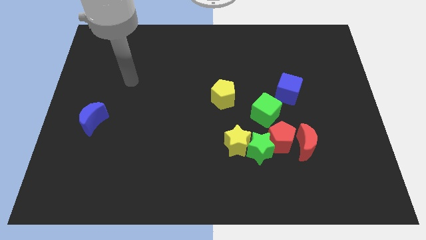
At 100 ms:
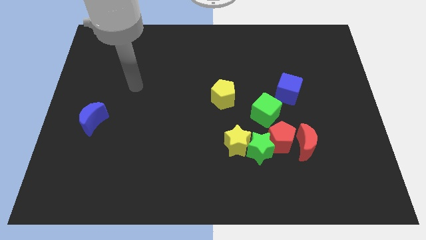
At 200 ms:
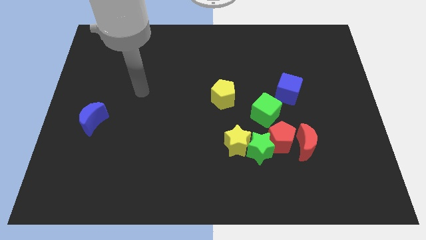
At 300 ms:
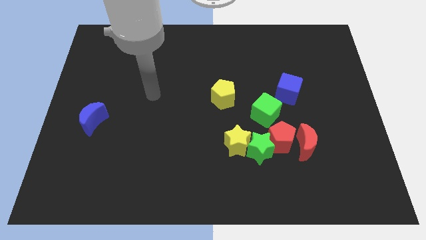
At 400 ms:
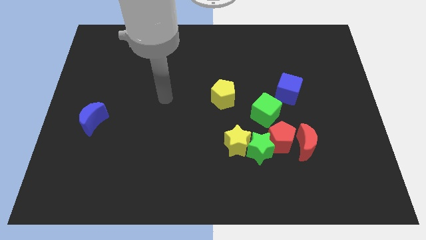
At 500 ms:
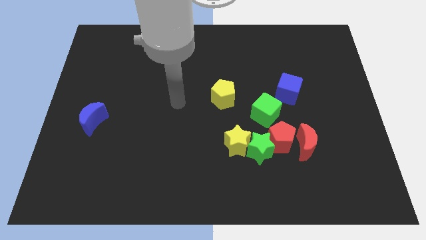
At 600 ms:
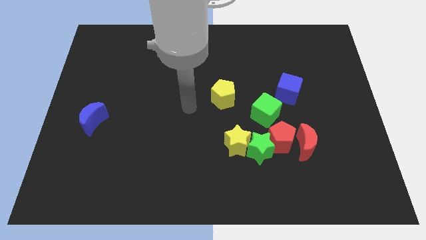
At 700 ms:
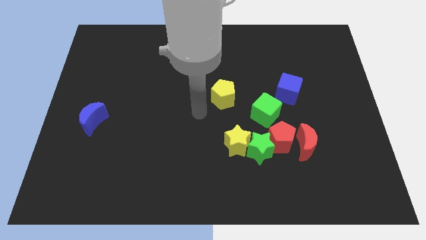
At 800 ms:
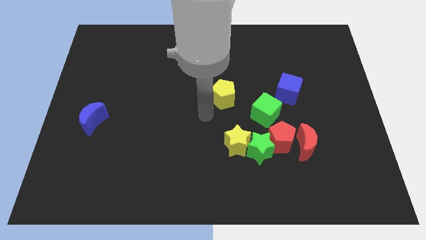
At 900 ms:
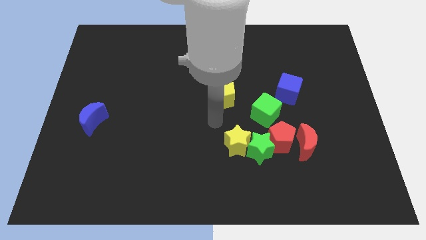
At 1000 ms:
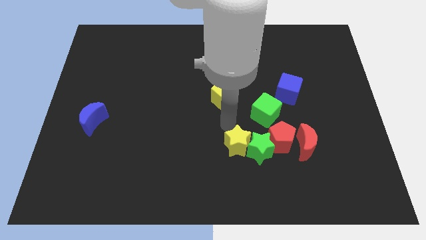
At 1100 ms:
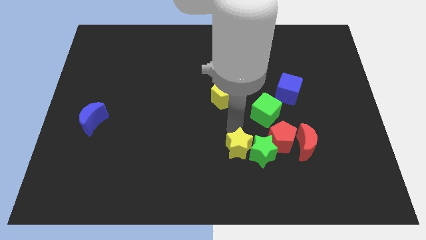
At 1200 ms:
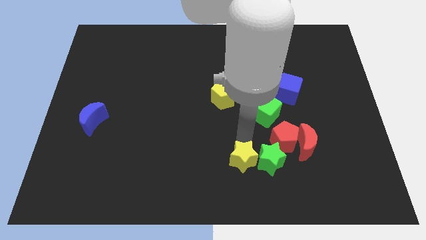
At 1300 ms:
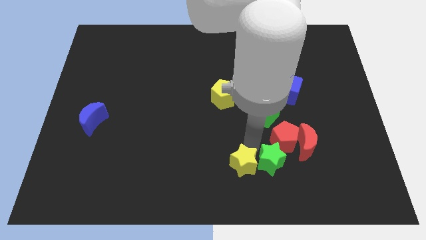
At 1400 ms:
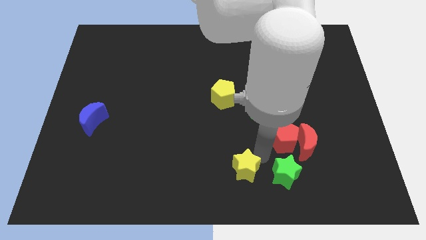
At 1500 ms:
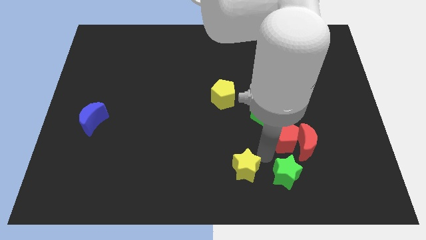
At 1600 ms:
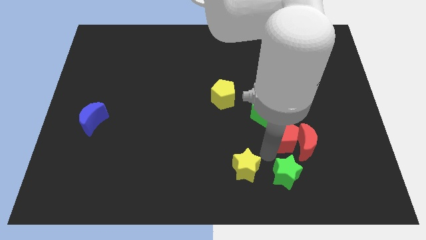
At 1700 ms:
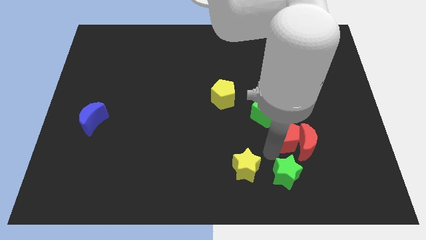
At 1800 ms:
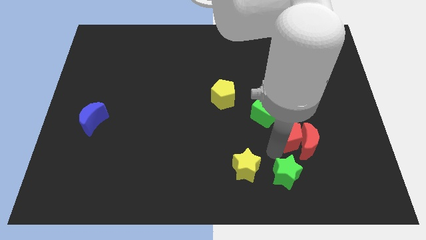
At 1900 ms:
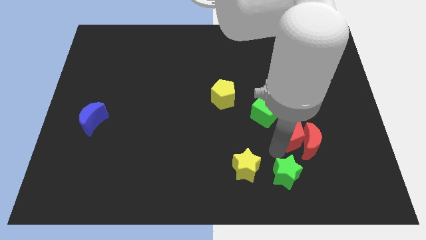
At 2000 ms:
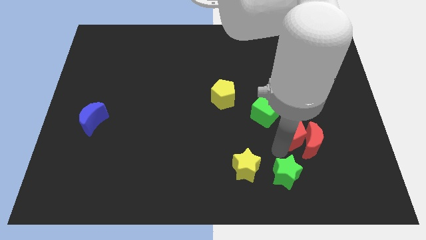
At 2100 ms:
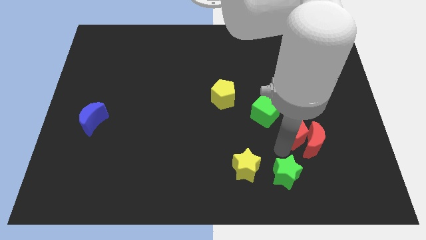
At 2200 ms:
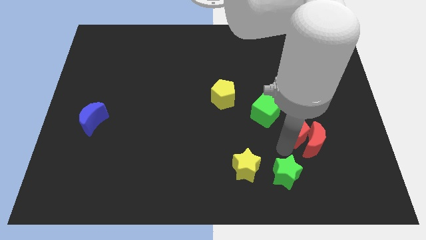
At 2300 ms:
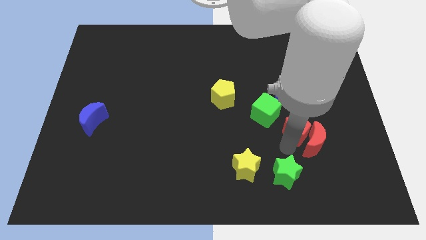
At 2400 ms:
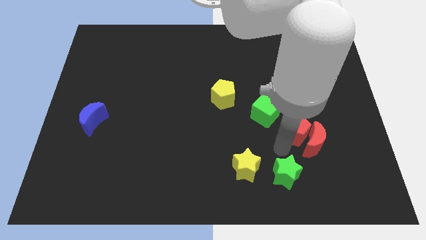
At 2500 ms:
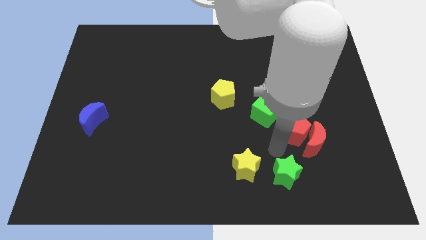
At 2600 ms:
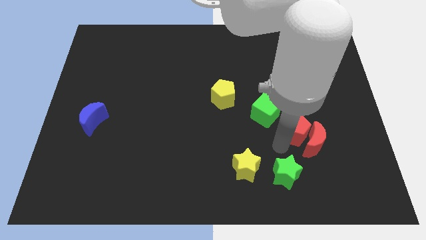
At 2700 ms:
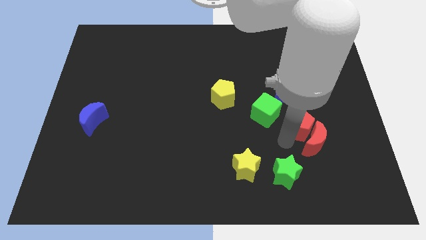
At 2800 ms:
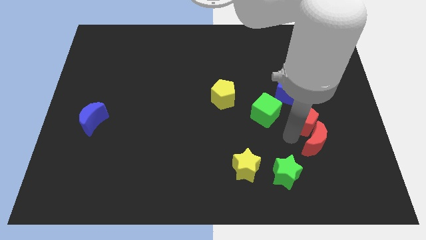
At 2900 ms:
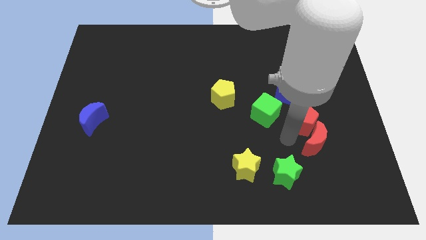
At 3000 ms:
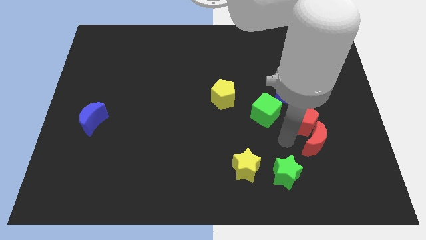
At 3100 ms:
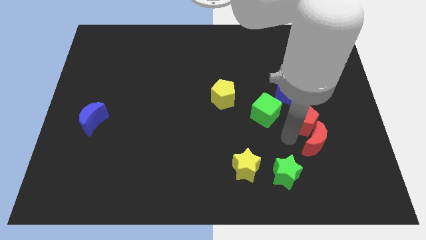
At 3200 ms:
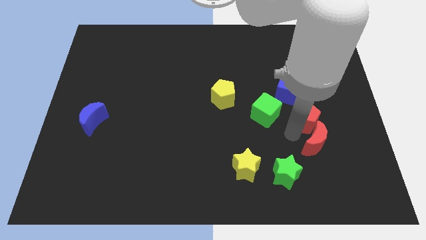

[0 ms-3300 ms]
move the red pentagon away from the group

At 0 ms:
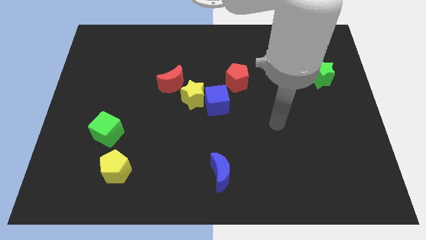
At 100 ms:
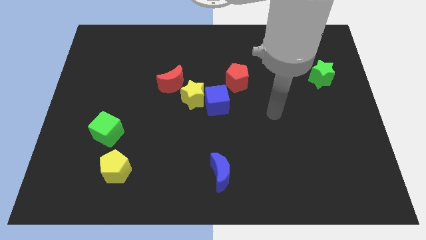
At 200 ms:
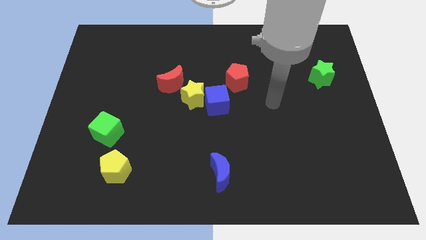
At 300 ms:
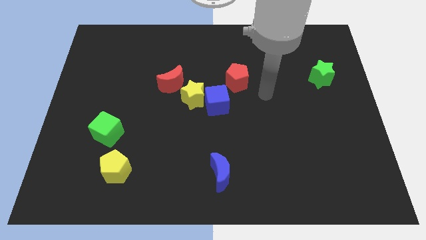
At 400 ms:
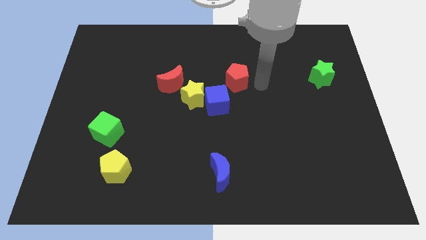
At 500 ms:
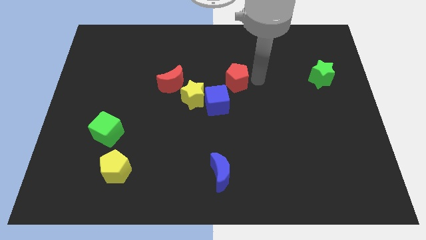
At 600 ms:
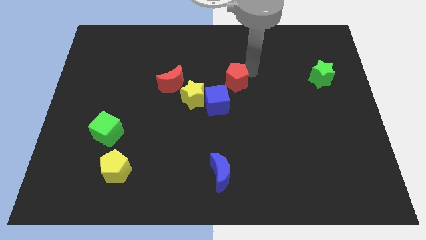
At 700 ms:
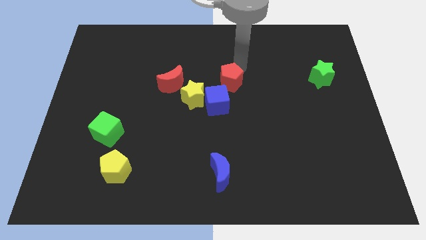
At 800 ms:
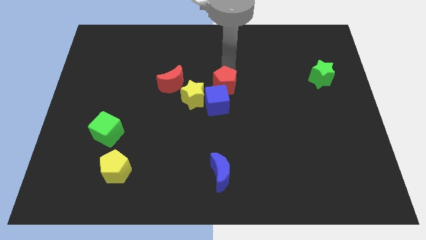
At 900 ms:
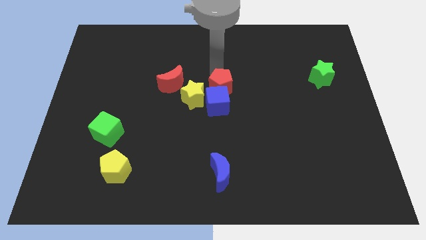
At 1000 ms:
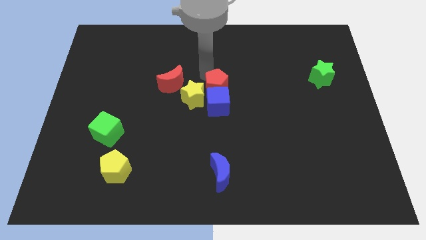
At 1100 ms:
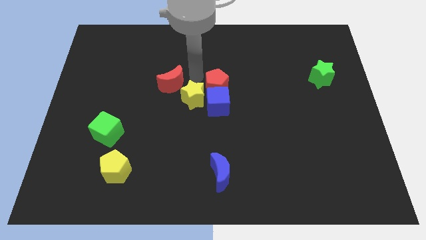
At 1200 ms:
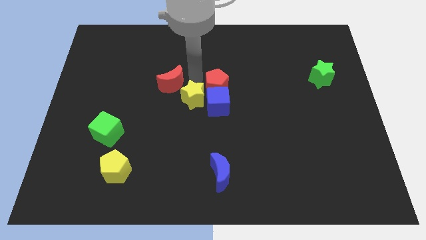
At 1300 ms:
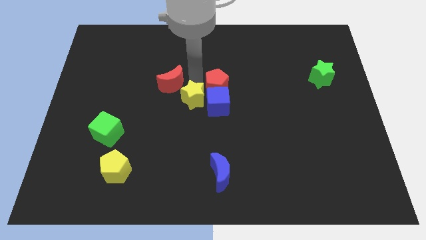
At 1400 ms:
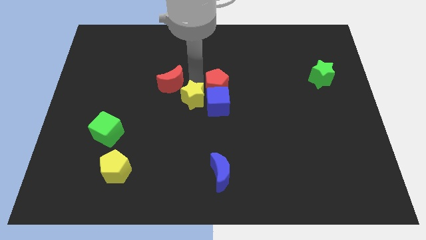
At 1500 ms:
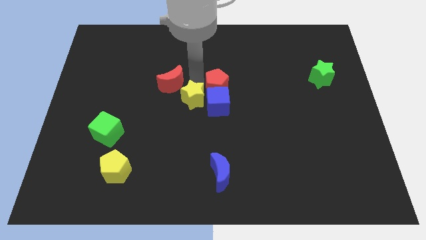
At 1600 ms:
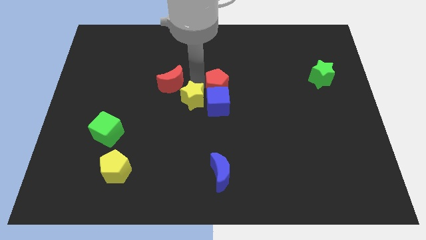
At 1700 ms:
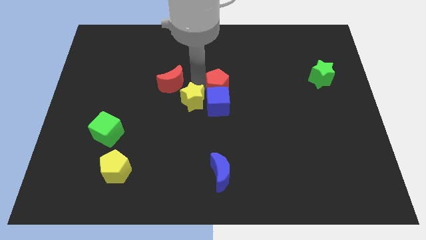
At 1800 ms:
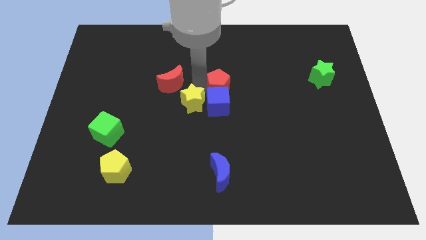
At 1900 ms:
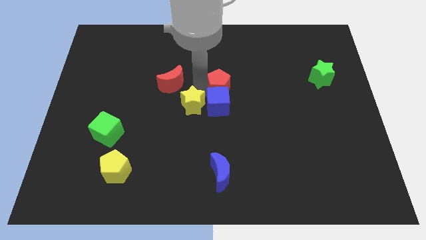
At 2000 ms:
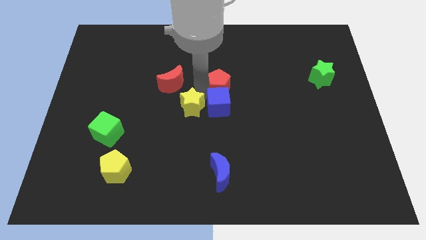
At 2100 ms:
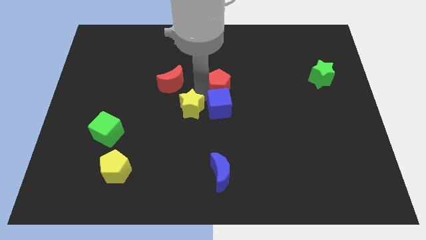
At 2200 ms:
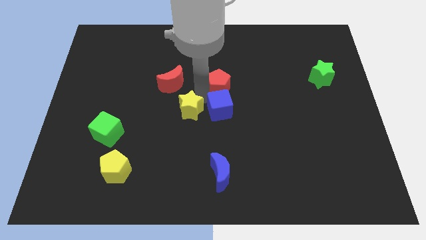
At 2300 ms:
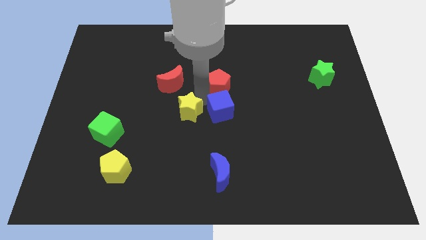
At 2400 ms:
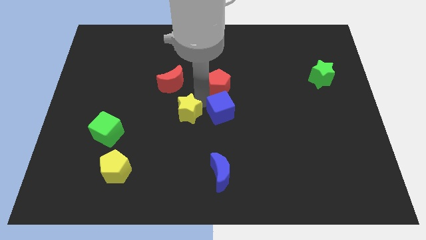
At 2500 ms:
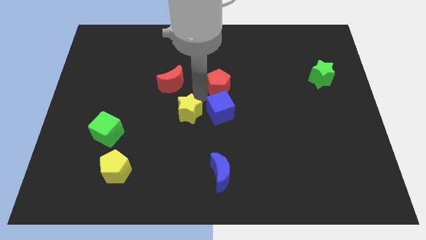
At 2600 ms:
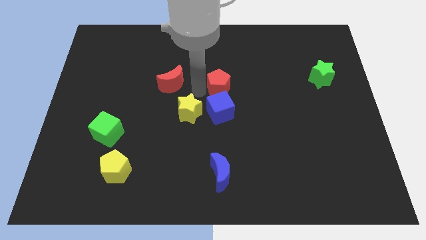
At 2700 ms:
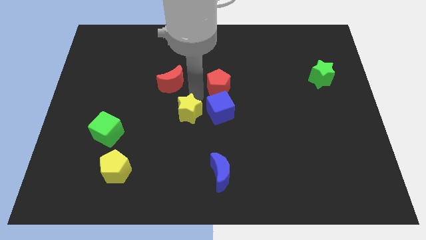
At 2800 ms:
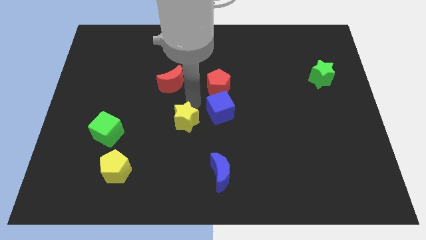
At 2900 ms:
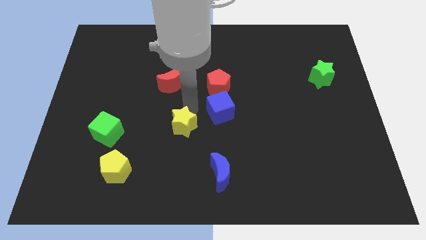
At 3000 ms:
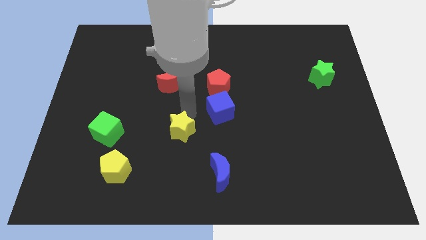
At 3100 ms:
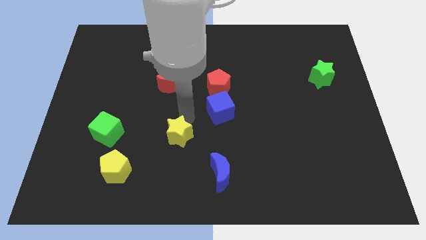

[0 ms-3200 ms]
move the yellow star away from the blue cube and red moon

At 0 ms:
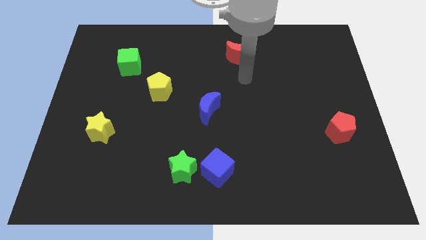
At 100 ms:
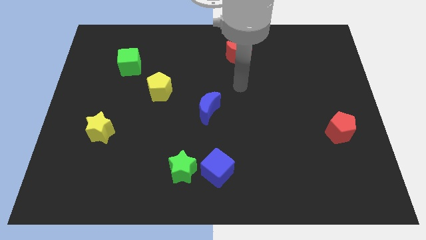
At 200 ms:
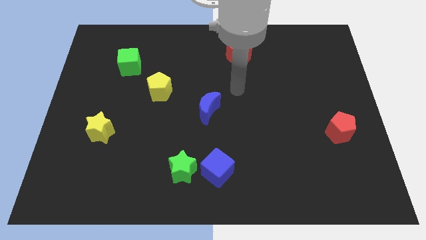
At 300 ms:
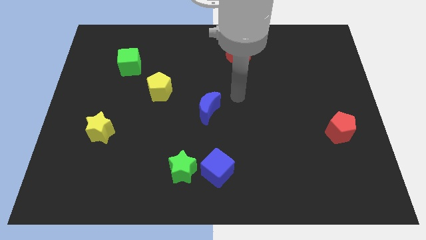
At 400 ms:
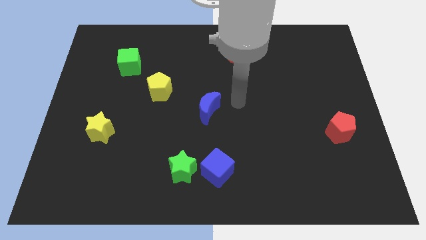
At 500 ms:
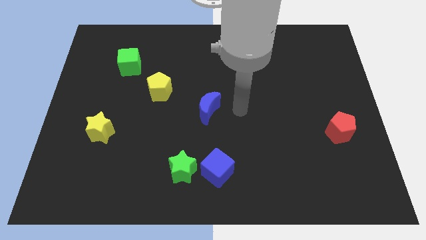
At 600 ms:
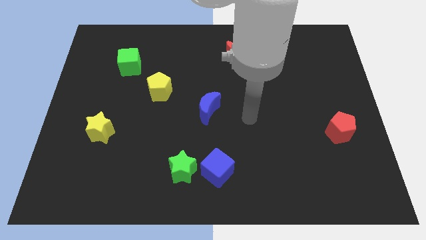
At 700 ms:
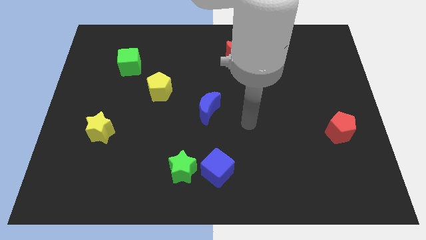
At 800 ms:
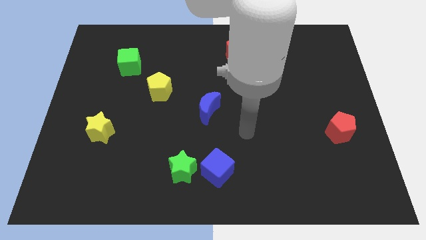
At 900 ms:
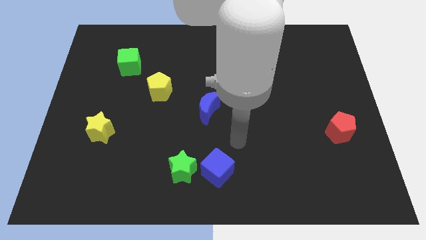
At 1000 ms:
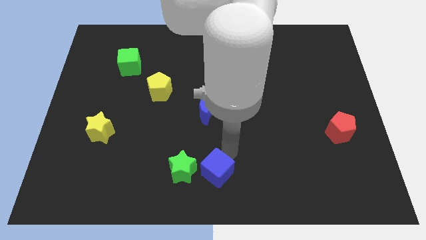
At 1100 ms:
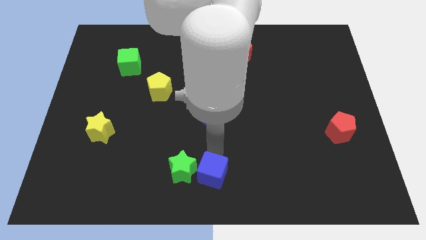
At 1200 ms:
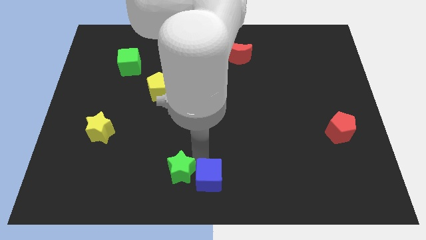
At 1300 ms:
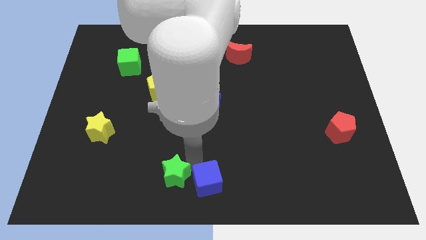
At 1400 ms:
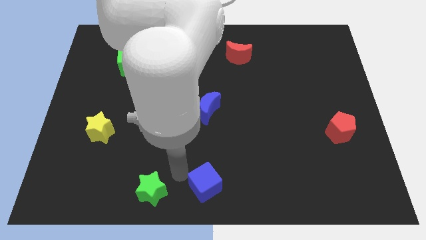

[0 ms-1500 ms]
pull the blue cube apart from the green star

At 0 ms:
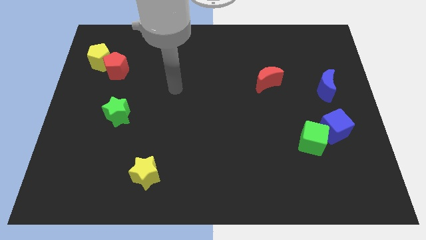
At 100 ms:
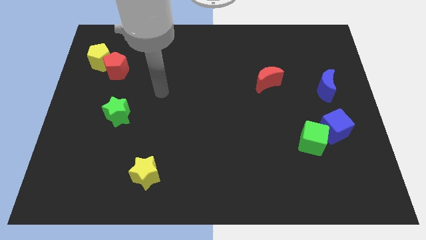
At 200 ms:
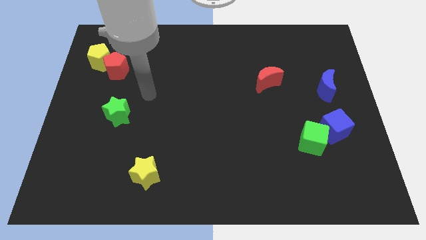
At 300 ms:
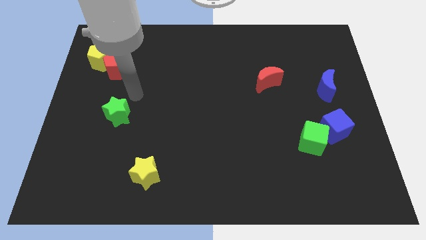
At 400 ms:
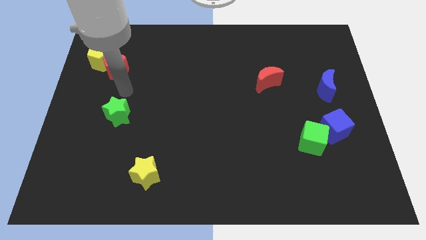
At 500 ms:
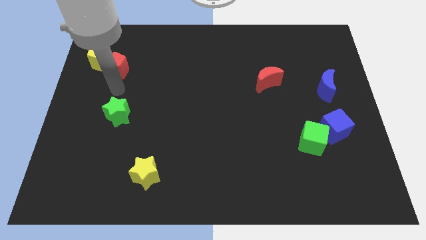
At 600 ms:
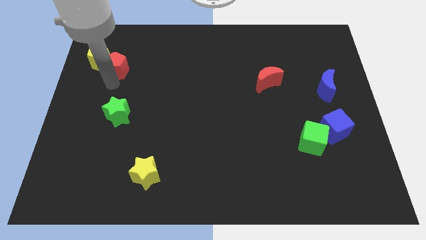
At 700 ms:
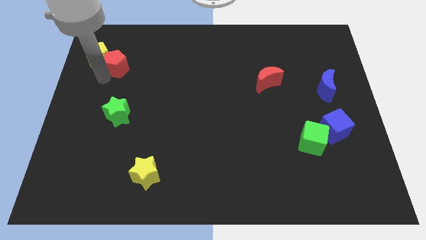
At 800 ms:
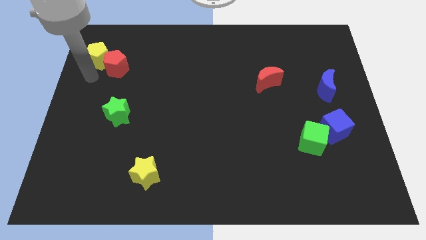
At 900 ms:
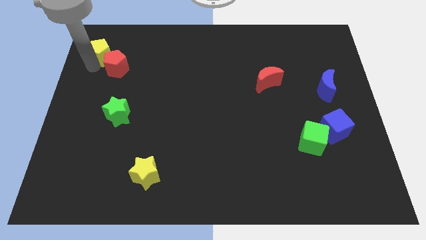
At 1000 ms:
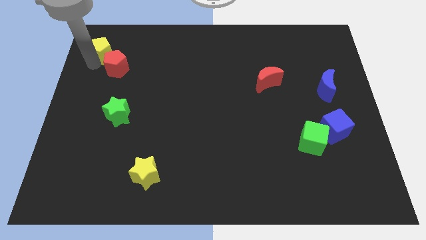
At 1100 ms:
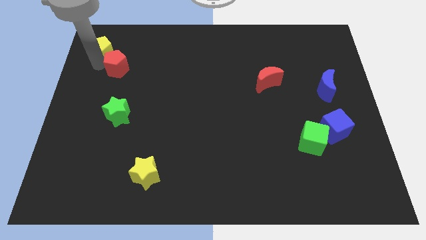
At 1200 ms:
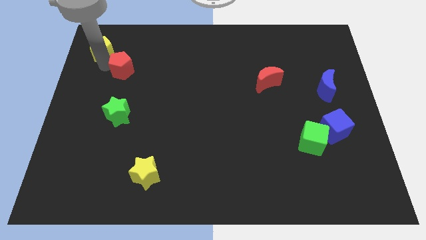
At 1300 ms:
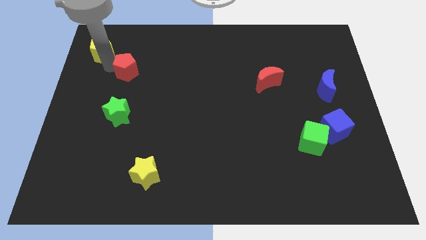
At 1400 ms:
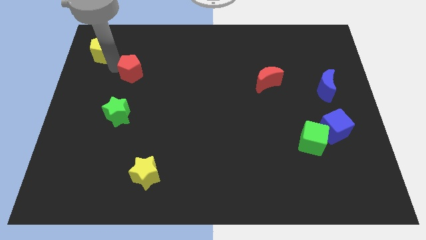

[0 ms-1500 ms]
move the red pentagon away from the yellow pentagon
